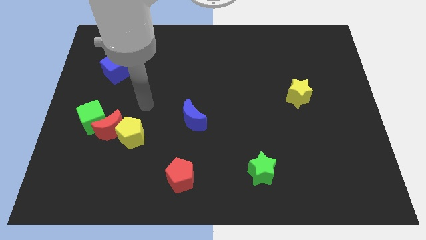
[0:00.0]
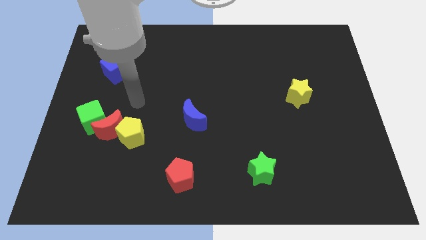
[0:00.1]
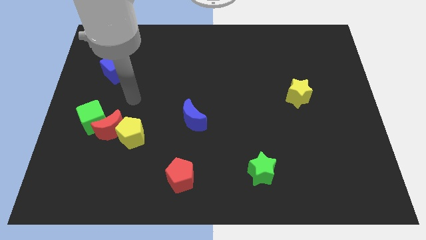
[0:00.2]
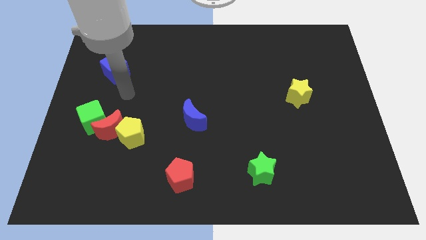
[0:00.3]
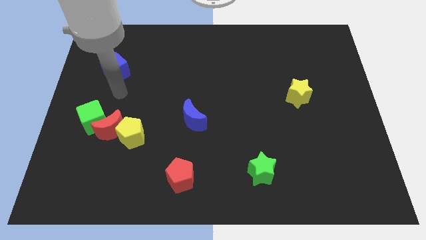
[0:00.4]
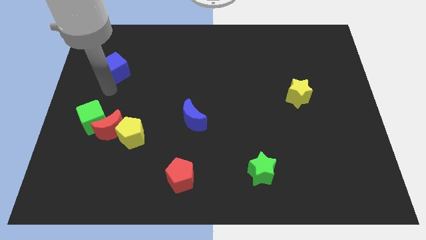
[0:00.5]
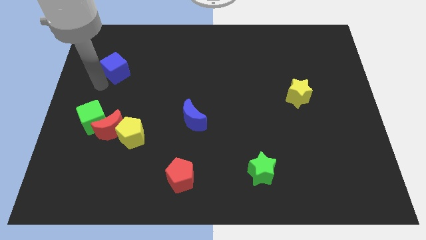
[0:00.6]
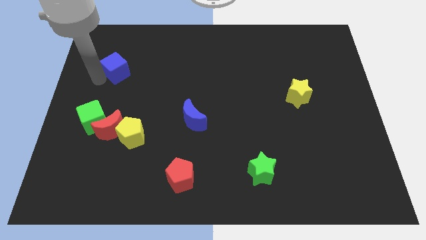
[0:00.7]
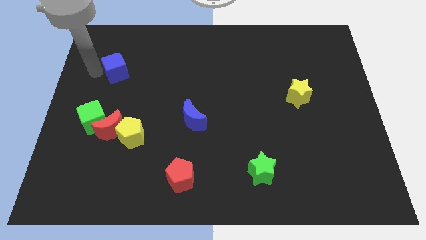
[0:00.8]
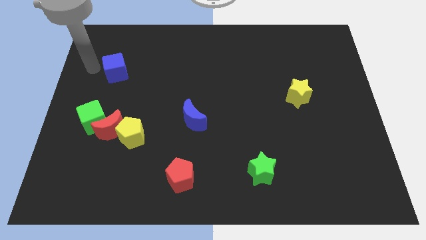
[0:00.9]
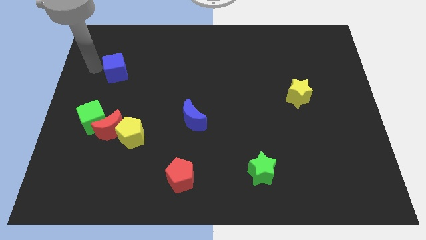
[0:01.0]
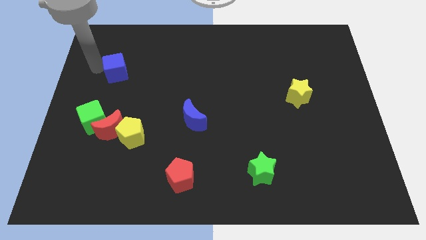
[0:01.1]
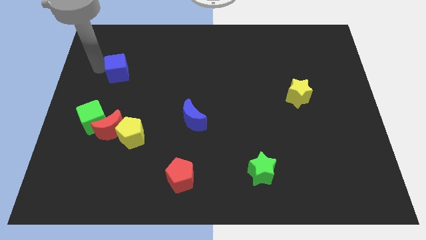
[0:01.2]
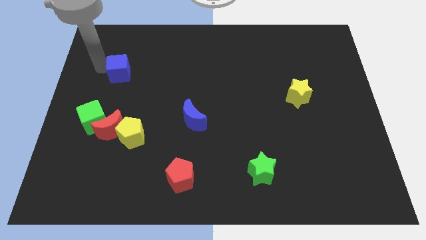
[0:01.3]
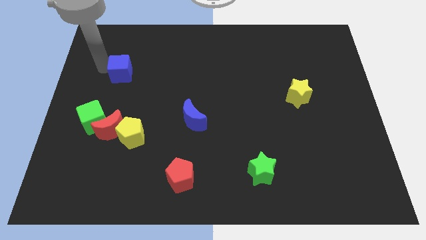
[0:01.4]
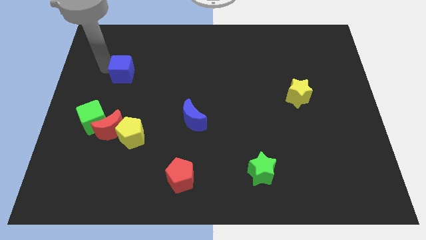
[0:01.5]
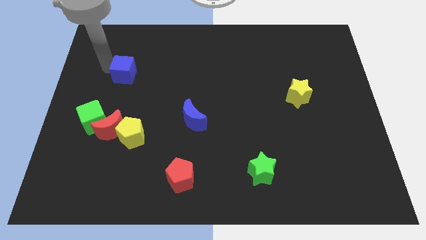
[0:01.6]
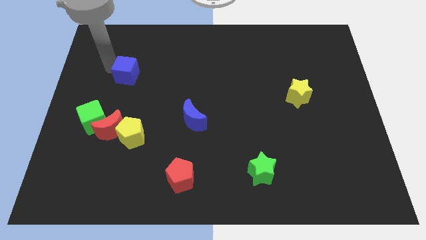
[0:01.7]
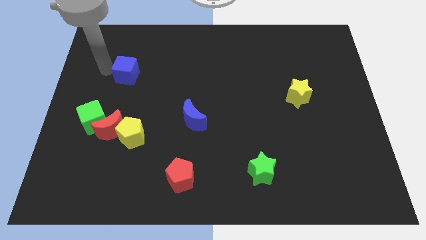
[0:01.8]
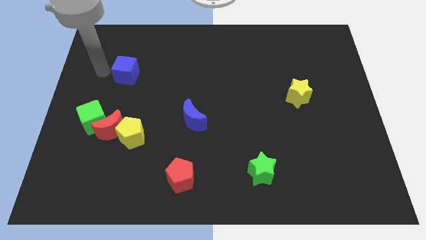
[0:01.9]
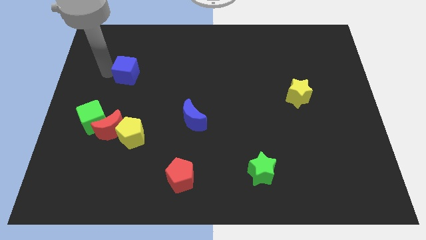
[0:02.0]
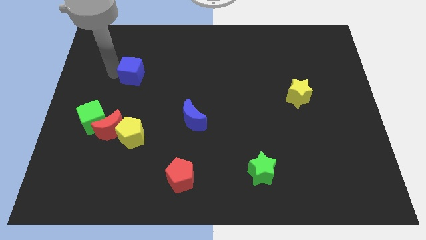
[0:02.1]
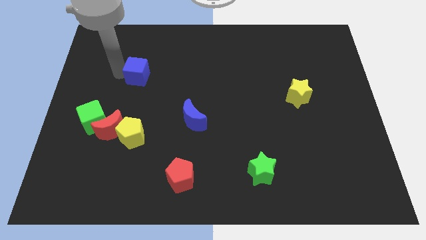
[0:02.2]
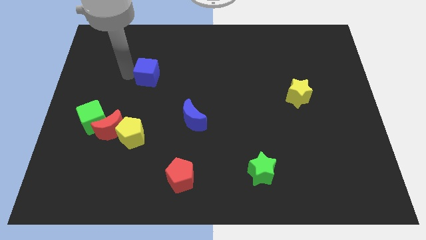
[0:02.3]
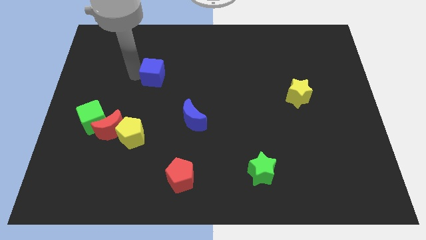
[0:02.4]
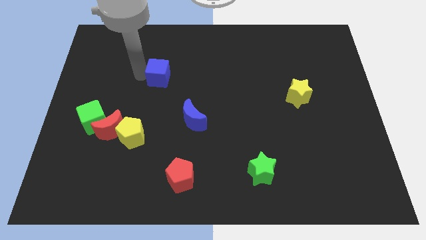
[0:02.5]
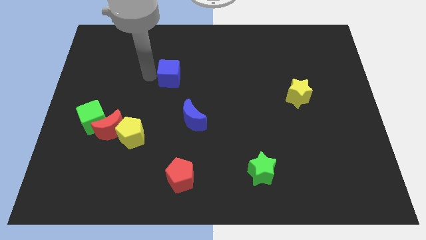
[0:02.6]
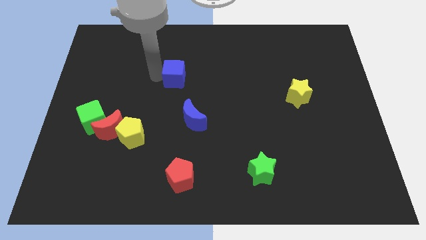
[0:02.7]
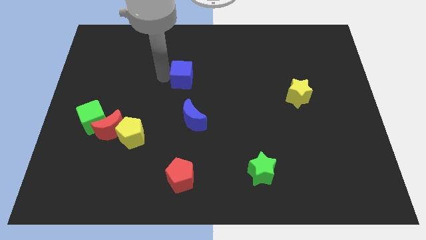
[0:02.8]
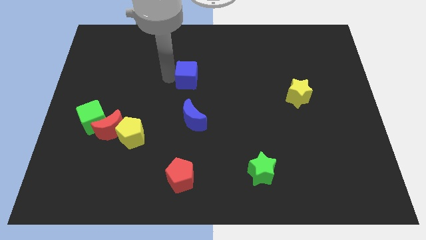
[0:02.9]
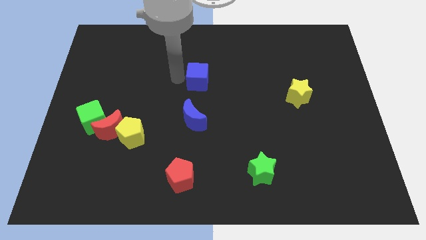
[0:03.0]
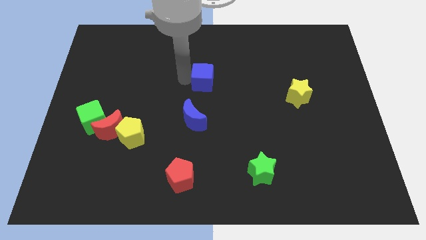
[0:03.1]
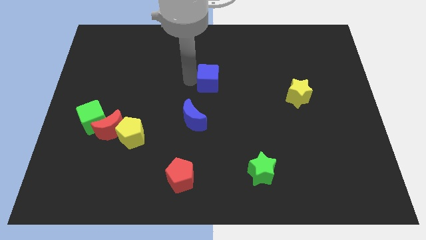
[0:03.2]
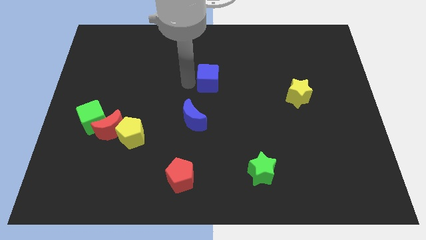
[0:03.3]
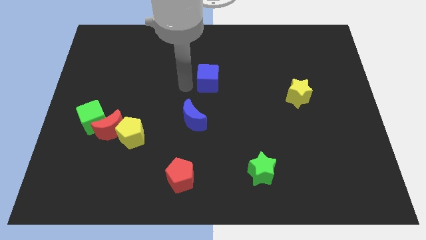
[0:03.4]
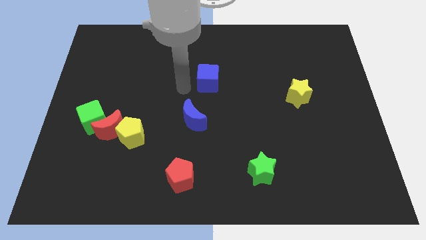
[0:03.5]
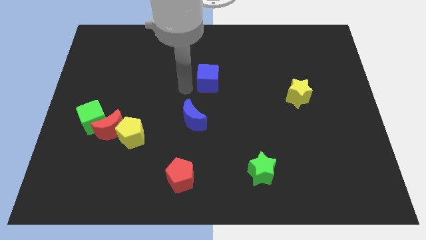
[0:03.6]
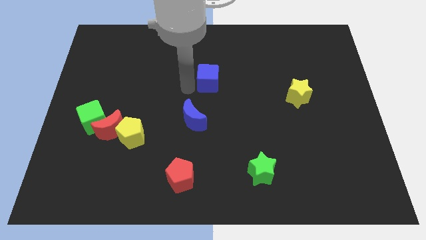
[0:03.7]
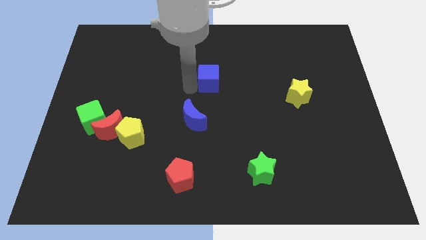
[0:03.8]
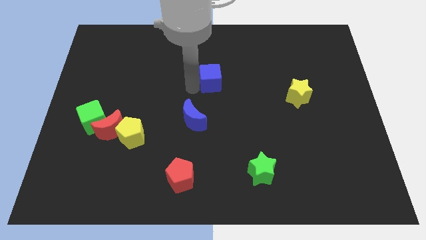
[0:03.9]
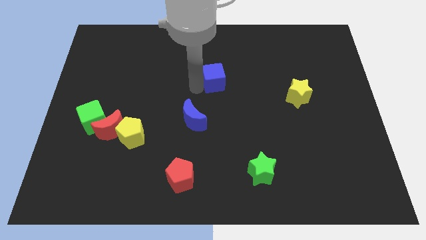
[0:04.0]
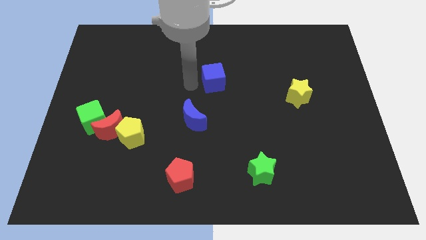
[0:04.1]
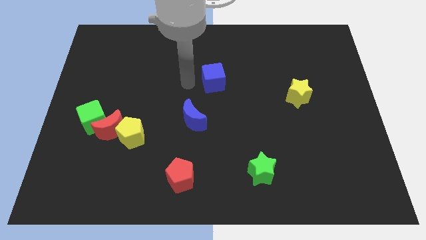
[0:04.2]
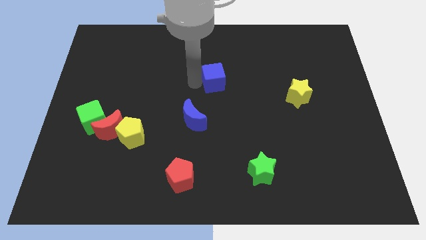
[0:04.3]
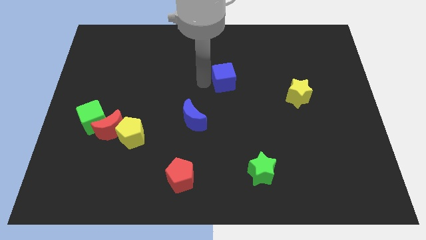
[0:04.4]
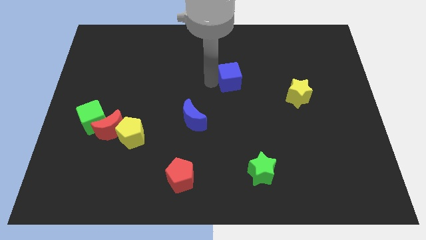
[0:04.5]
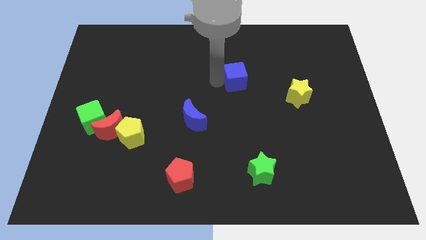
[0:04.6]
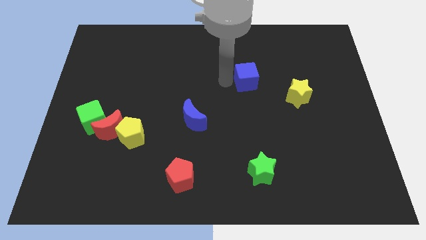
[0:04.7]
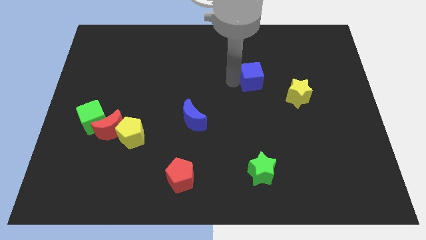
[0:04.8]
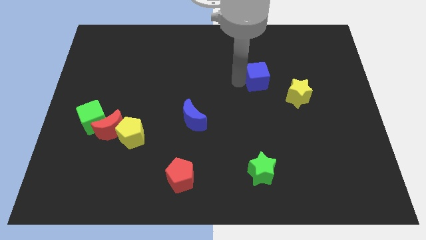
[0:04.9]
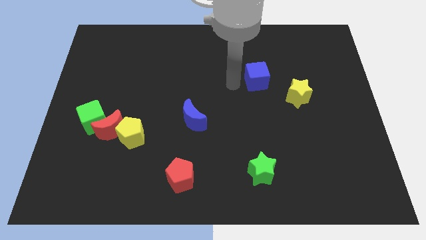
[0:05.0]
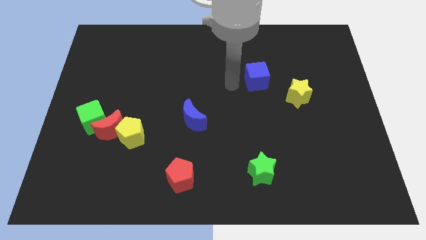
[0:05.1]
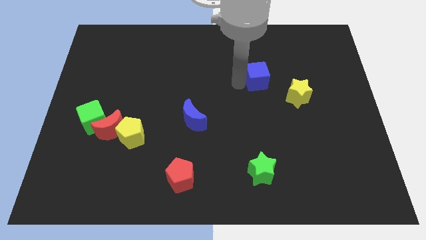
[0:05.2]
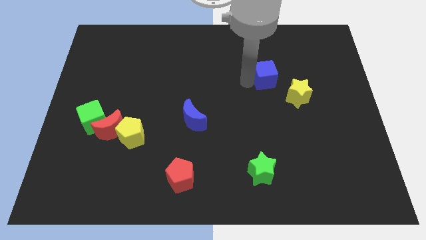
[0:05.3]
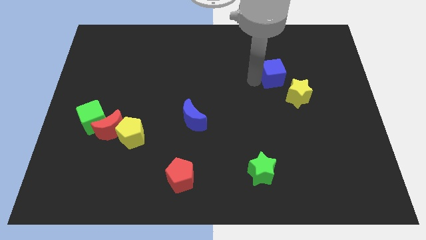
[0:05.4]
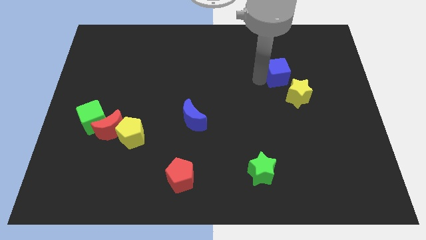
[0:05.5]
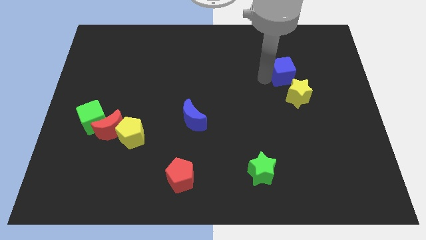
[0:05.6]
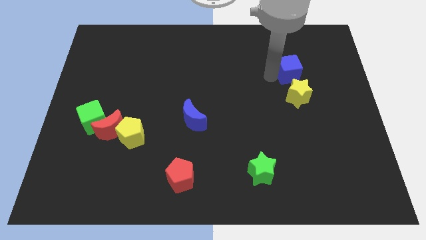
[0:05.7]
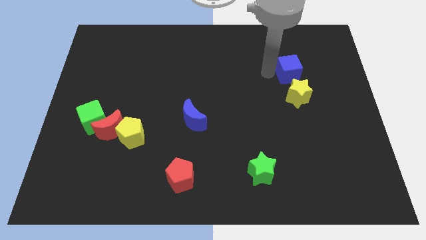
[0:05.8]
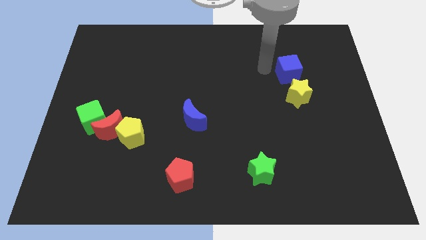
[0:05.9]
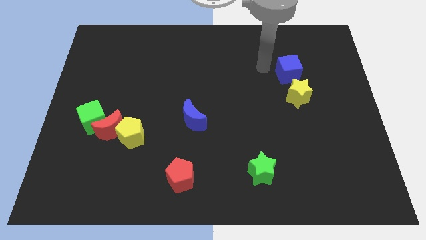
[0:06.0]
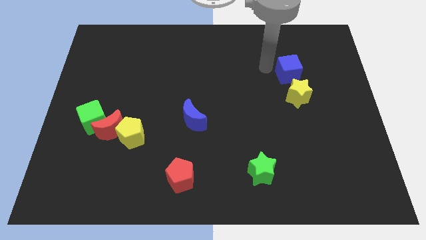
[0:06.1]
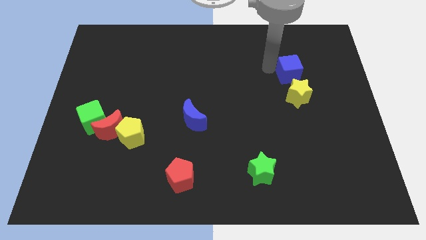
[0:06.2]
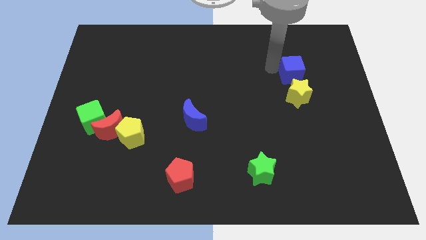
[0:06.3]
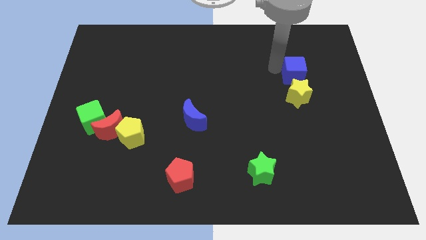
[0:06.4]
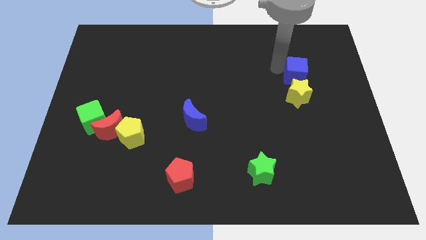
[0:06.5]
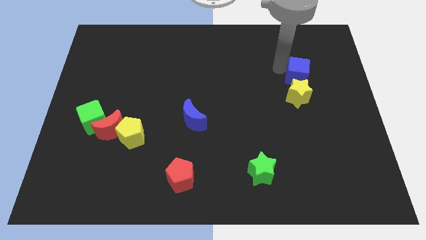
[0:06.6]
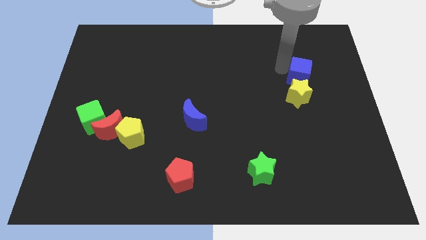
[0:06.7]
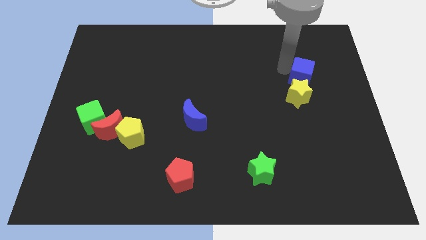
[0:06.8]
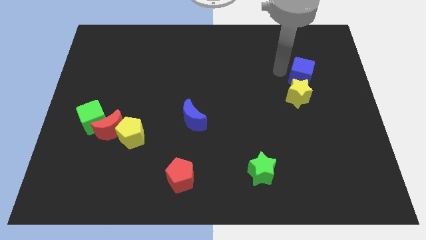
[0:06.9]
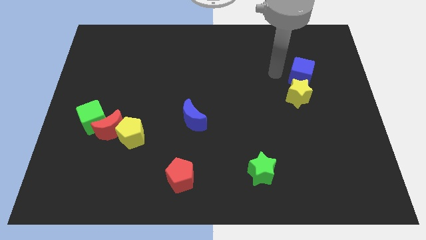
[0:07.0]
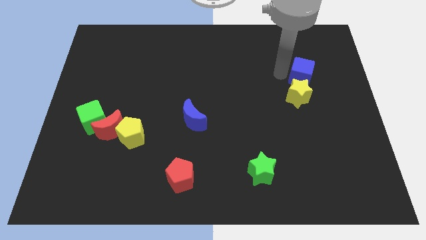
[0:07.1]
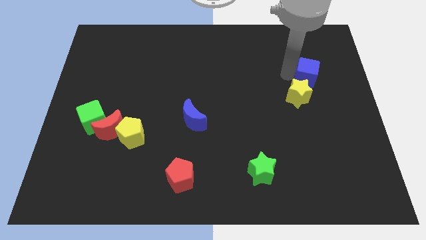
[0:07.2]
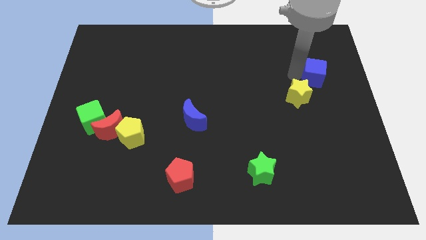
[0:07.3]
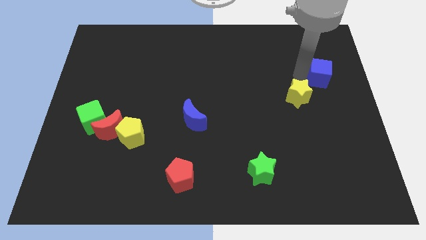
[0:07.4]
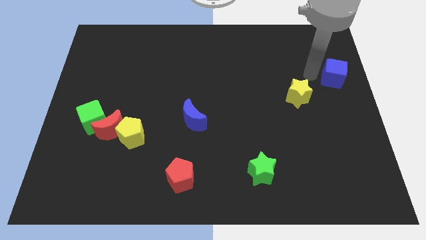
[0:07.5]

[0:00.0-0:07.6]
move the blue cube to the right side

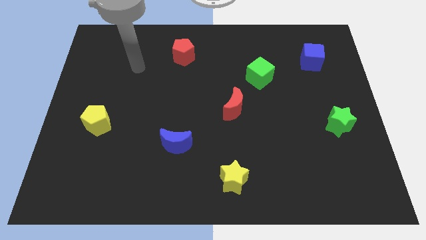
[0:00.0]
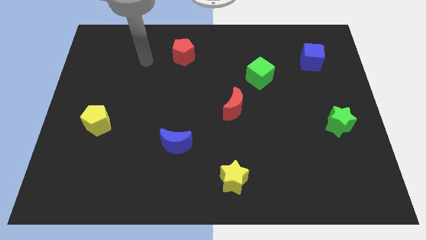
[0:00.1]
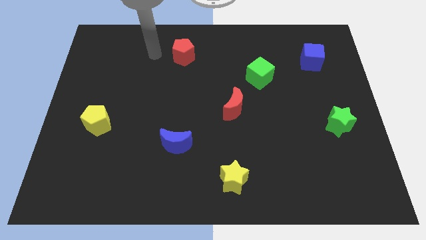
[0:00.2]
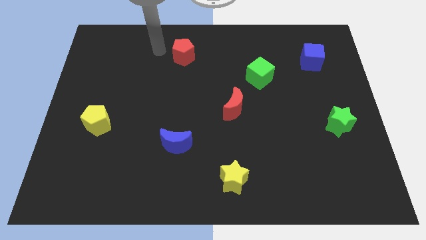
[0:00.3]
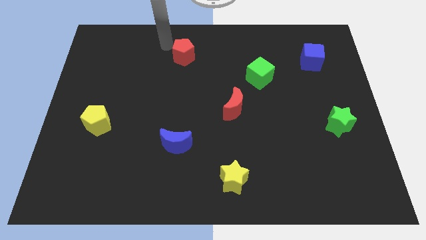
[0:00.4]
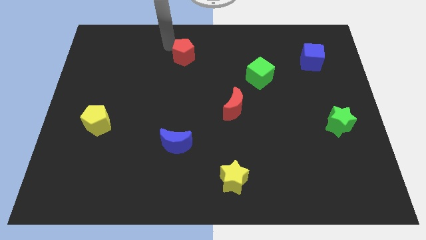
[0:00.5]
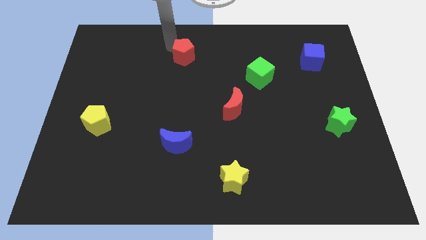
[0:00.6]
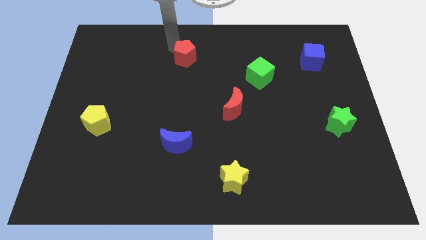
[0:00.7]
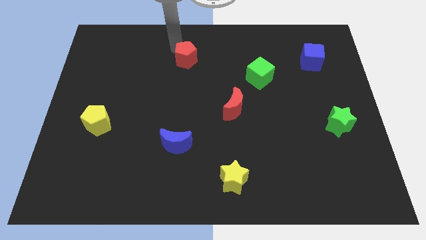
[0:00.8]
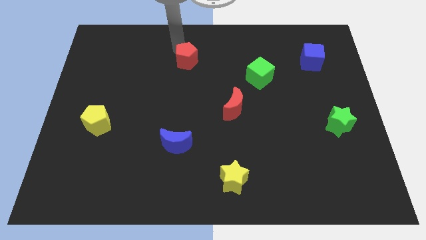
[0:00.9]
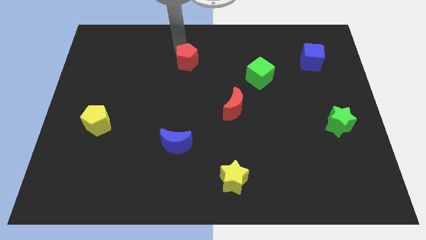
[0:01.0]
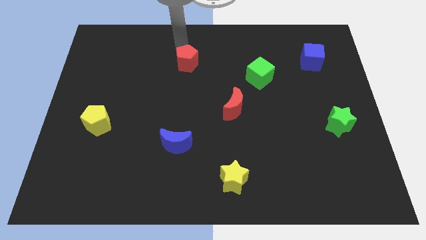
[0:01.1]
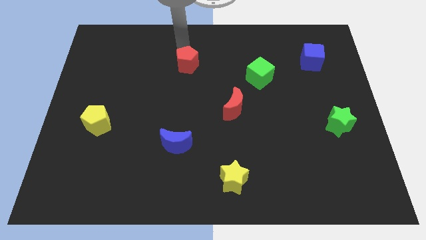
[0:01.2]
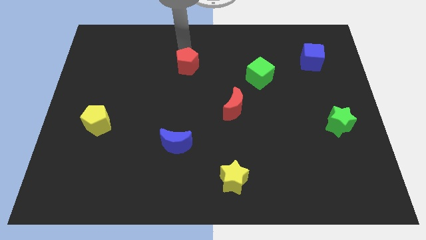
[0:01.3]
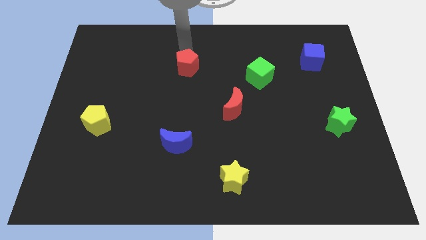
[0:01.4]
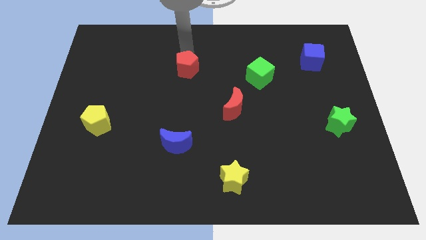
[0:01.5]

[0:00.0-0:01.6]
put the red pentagon to the center
